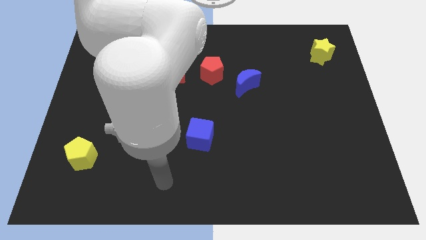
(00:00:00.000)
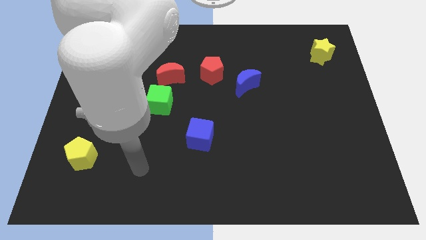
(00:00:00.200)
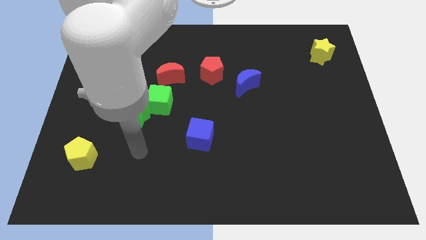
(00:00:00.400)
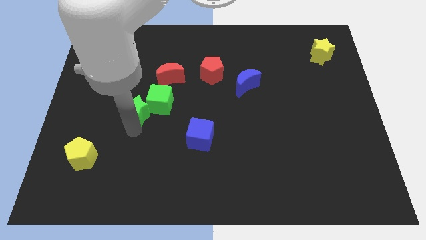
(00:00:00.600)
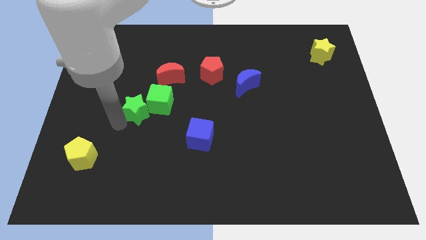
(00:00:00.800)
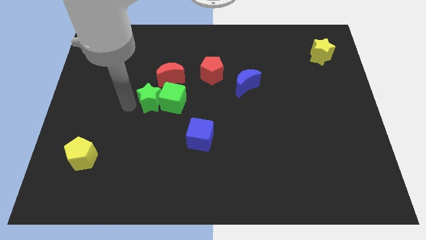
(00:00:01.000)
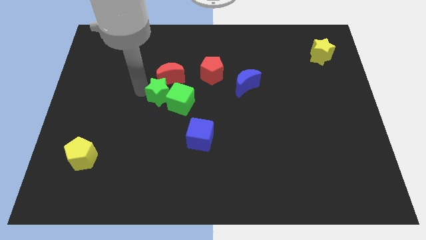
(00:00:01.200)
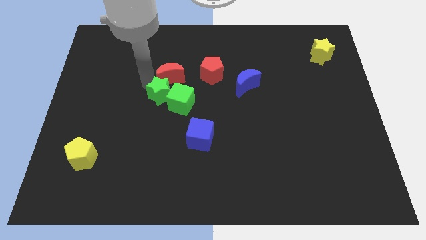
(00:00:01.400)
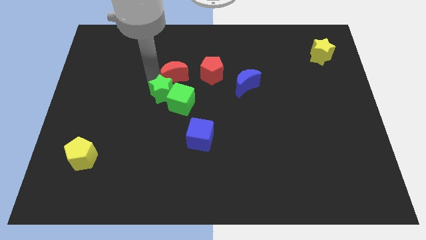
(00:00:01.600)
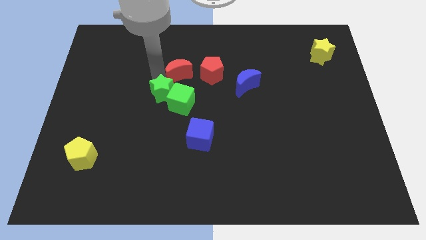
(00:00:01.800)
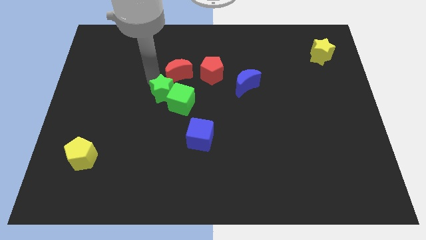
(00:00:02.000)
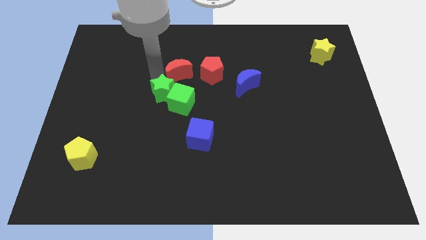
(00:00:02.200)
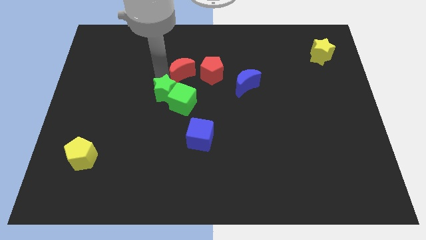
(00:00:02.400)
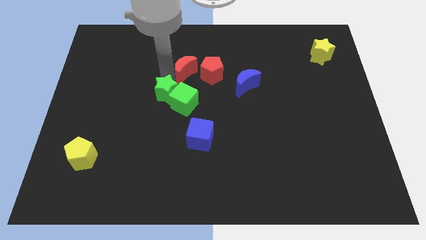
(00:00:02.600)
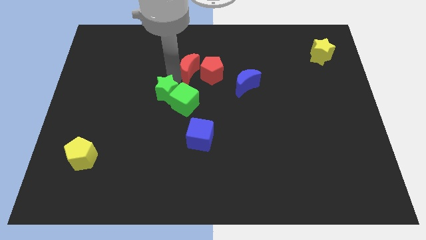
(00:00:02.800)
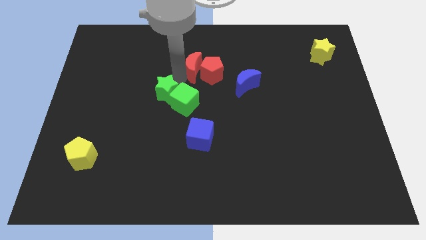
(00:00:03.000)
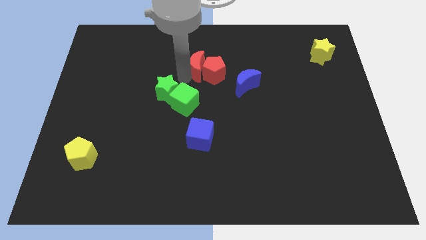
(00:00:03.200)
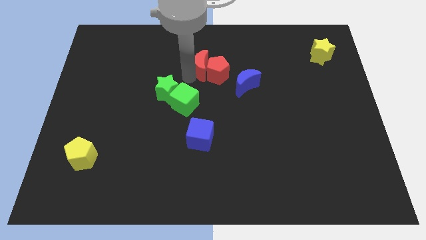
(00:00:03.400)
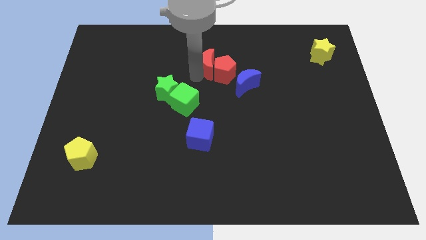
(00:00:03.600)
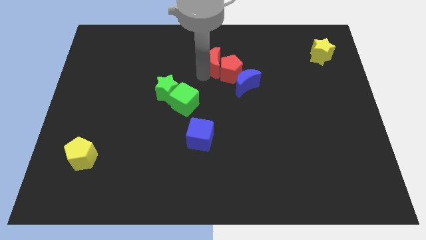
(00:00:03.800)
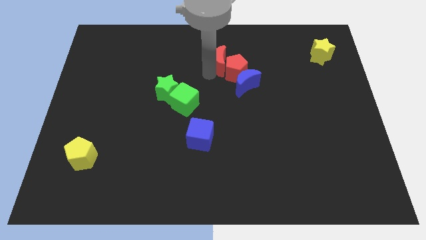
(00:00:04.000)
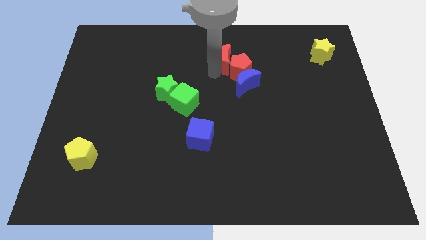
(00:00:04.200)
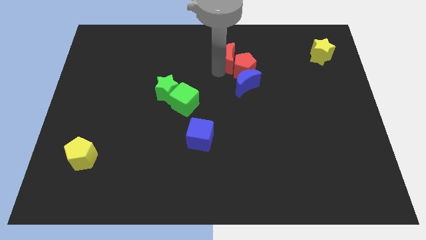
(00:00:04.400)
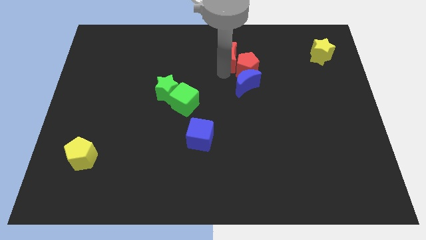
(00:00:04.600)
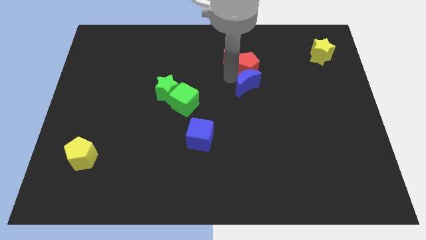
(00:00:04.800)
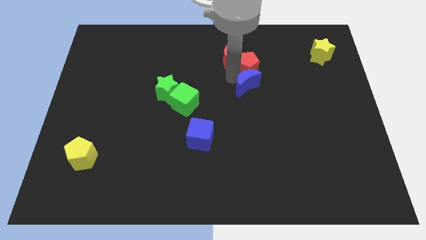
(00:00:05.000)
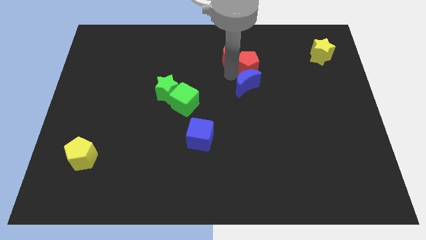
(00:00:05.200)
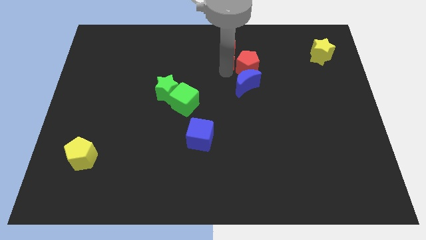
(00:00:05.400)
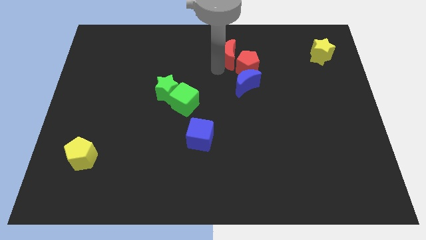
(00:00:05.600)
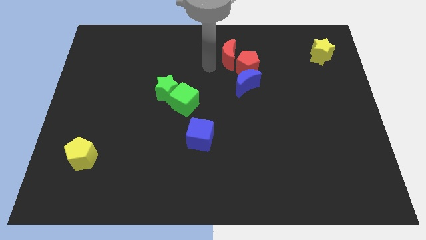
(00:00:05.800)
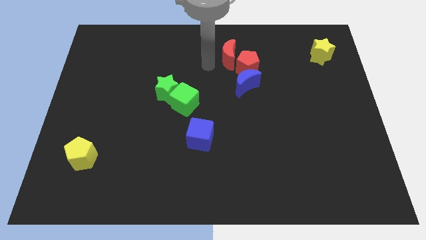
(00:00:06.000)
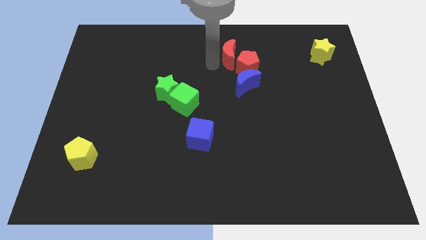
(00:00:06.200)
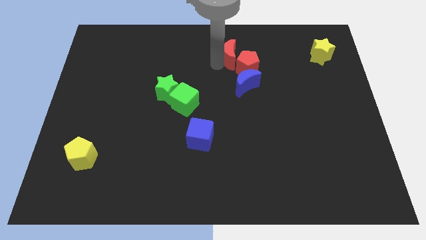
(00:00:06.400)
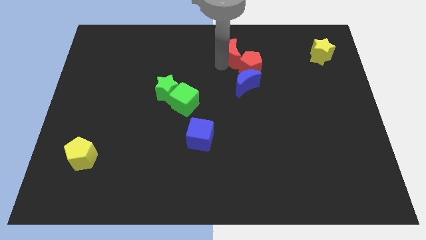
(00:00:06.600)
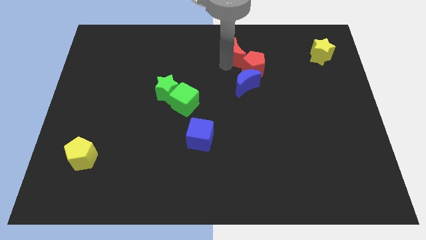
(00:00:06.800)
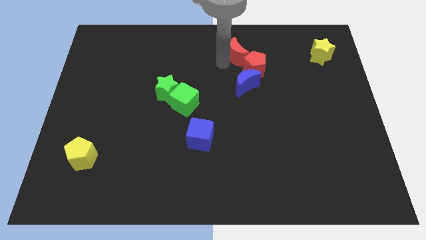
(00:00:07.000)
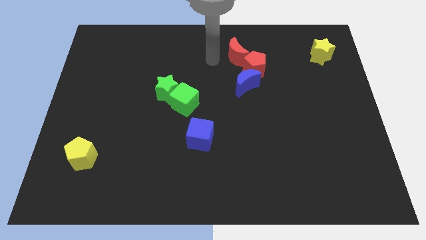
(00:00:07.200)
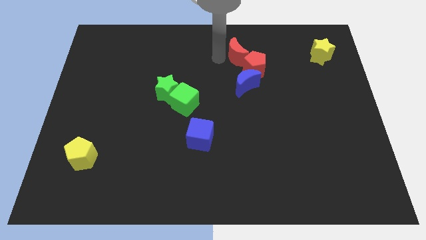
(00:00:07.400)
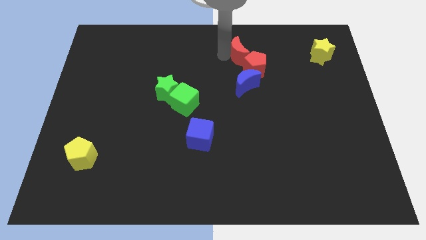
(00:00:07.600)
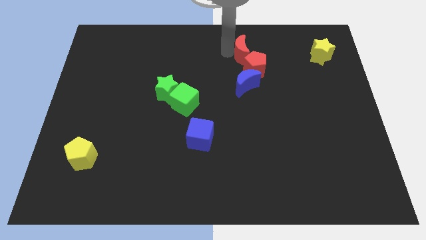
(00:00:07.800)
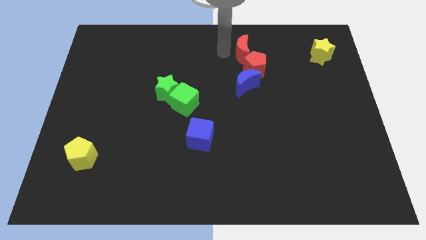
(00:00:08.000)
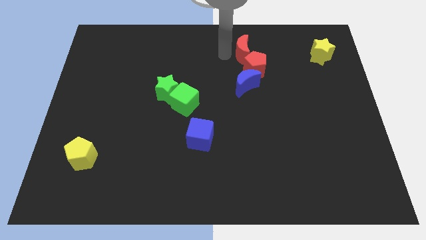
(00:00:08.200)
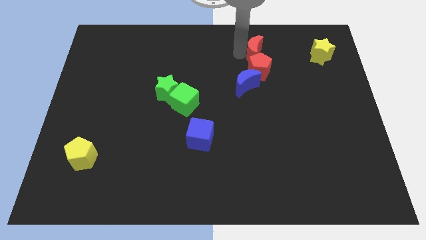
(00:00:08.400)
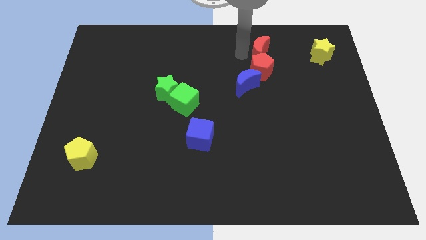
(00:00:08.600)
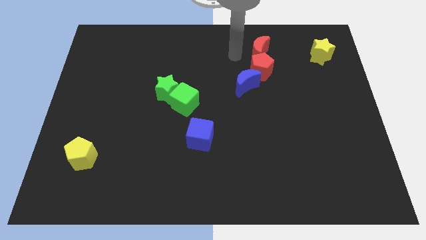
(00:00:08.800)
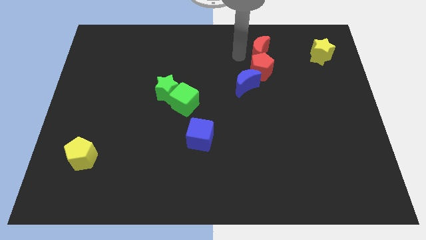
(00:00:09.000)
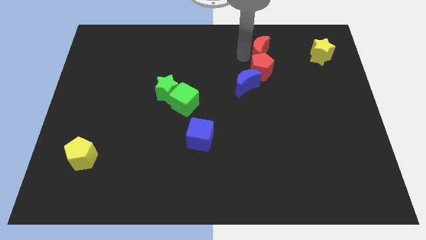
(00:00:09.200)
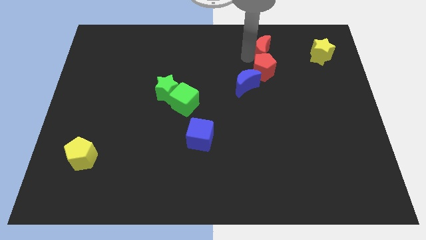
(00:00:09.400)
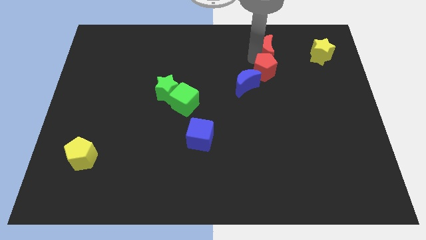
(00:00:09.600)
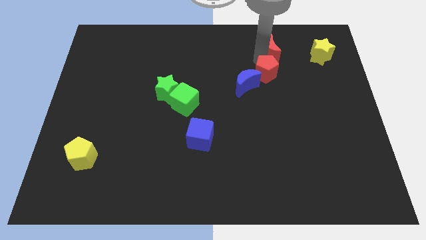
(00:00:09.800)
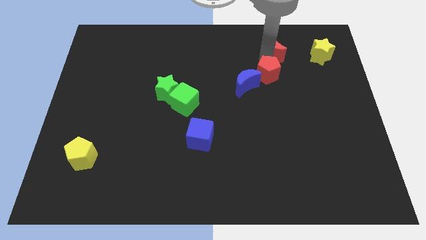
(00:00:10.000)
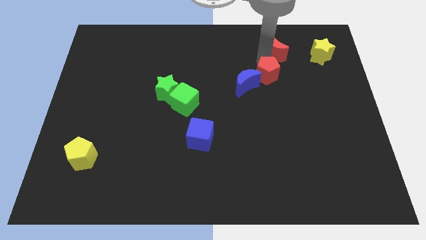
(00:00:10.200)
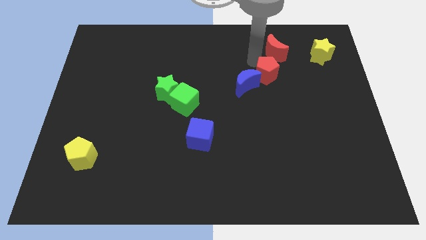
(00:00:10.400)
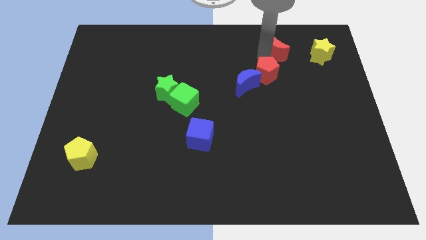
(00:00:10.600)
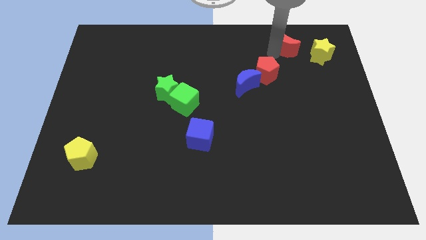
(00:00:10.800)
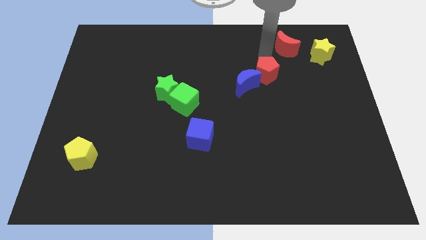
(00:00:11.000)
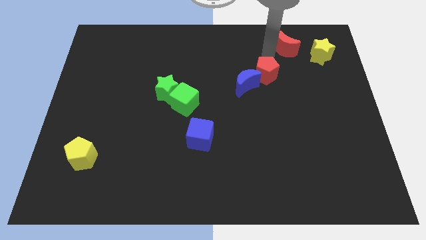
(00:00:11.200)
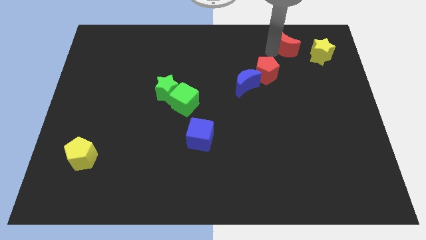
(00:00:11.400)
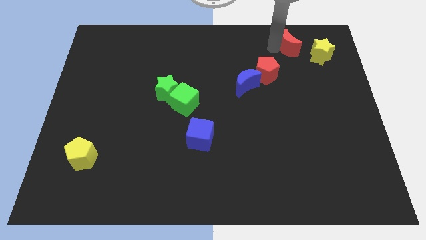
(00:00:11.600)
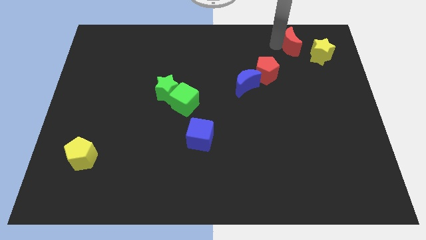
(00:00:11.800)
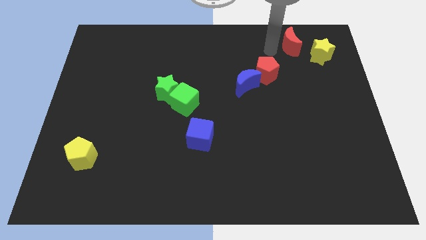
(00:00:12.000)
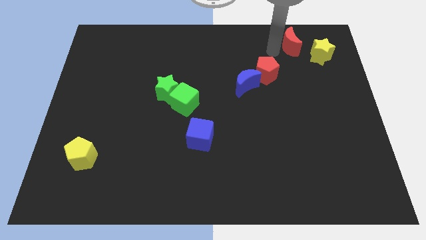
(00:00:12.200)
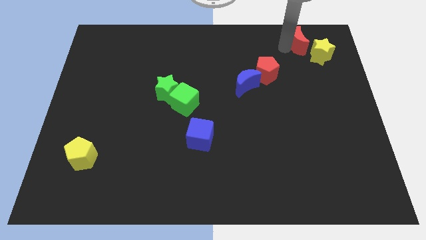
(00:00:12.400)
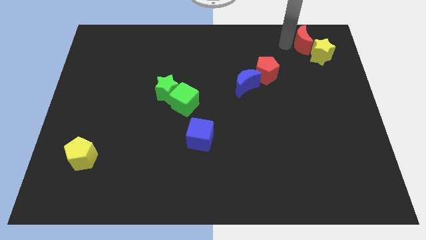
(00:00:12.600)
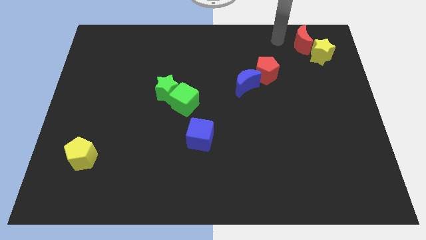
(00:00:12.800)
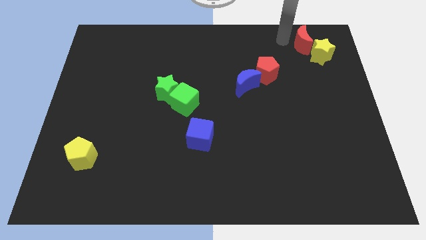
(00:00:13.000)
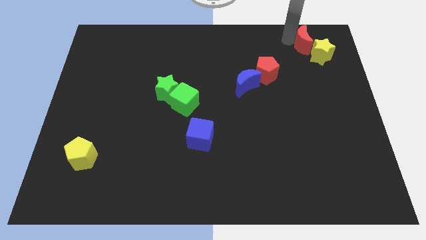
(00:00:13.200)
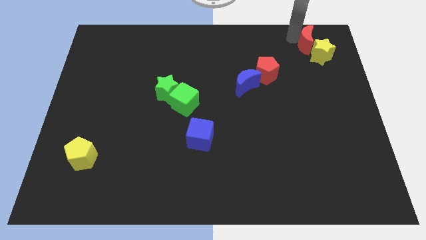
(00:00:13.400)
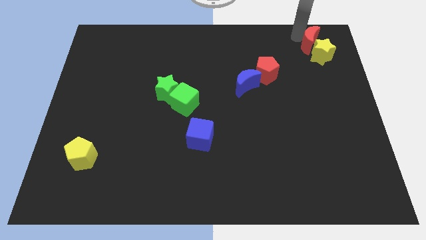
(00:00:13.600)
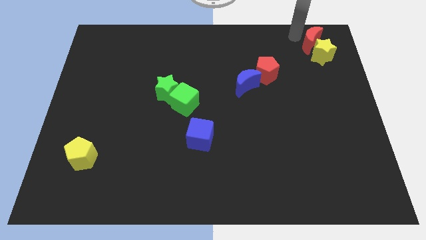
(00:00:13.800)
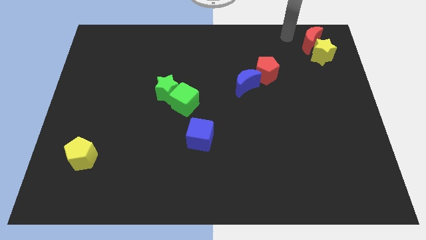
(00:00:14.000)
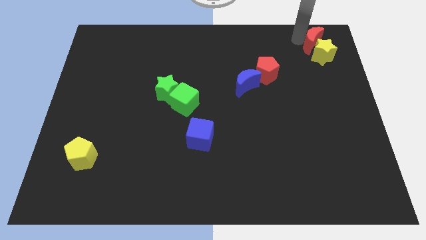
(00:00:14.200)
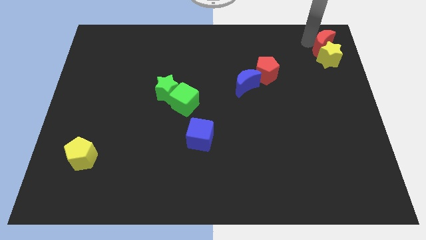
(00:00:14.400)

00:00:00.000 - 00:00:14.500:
move the red moon to the top right corner
